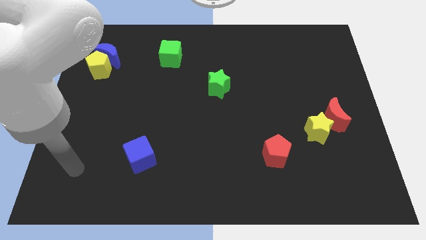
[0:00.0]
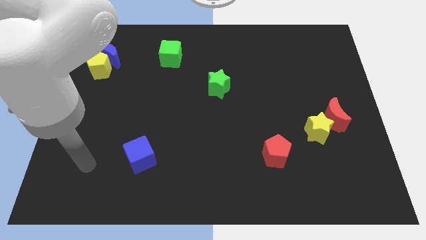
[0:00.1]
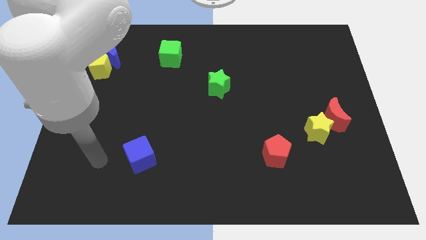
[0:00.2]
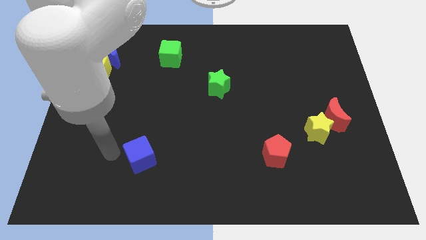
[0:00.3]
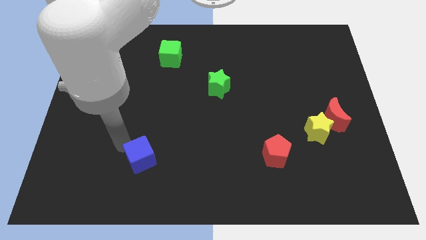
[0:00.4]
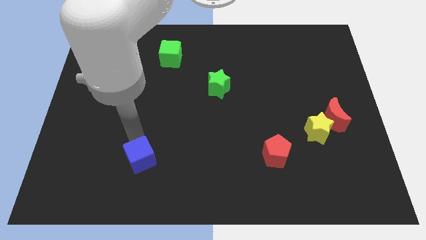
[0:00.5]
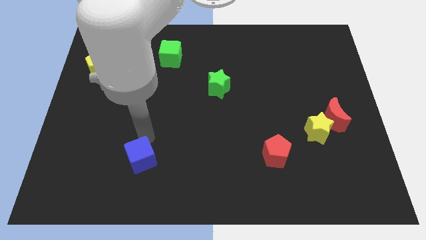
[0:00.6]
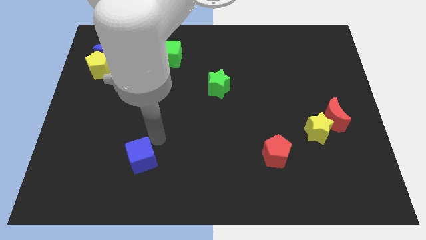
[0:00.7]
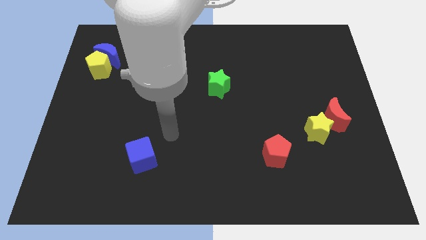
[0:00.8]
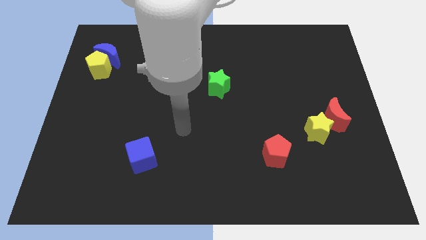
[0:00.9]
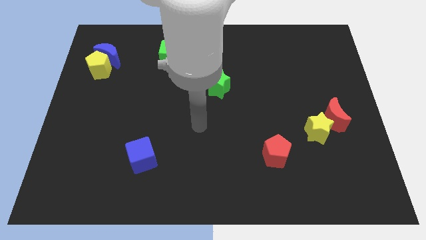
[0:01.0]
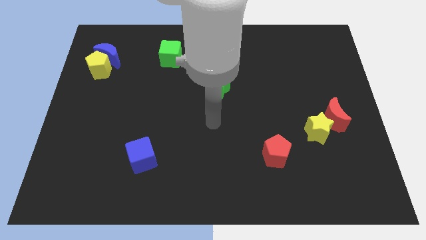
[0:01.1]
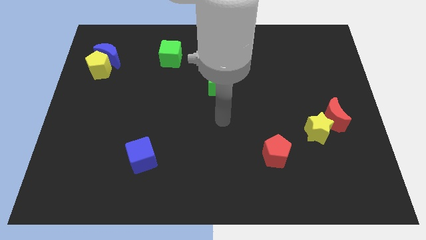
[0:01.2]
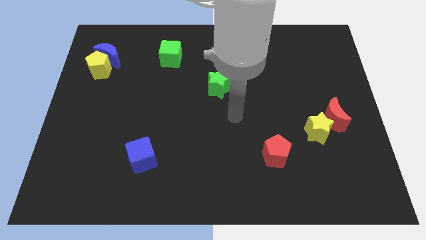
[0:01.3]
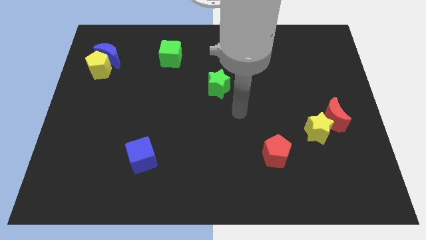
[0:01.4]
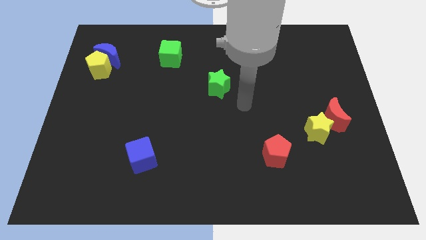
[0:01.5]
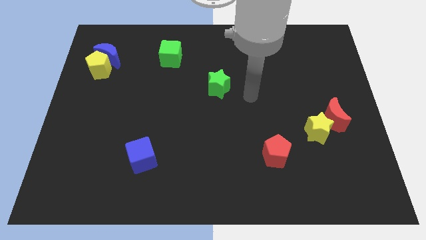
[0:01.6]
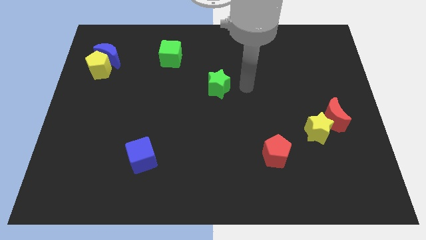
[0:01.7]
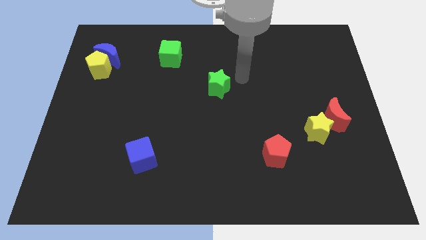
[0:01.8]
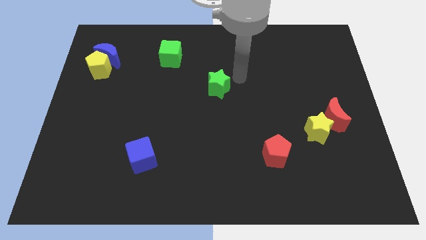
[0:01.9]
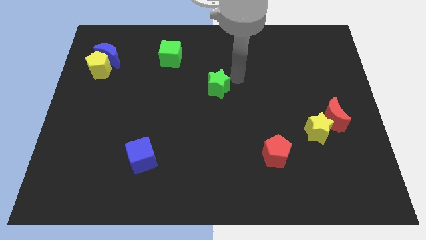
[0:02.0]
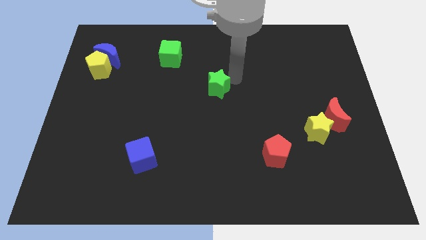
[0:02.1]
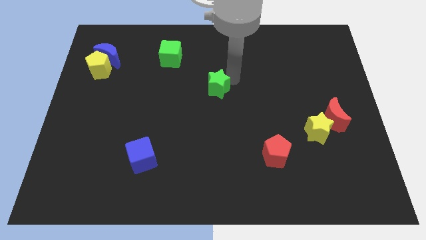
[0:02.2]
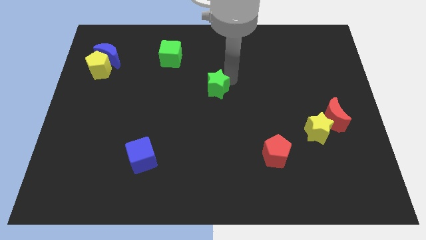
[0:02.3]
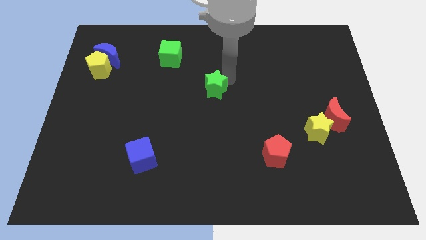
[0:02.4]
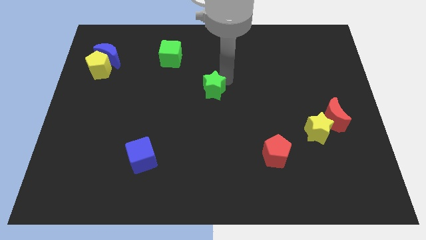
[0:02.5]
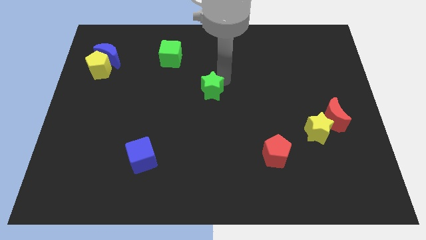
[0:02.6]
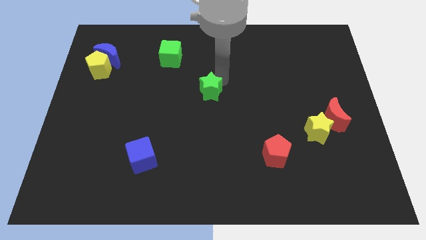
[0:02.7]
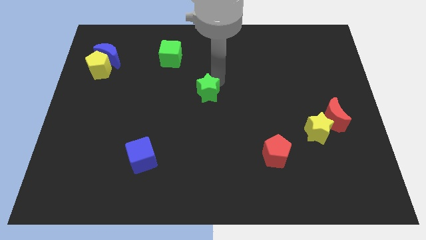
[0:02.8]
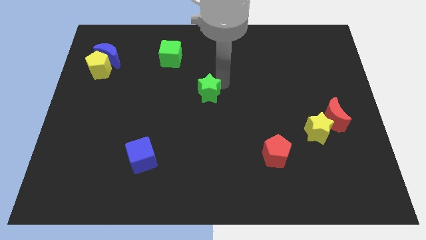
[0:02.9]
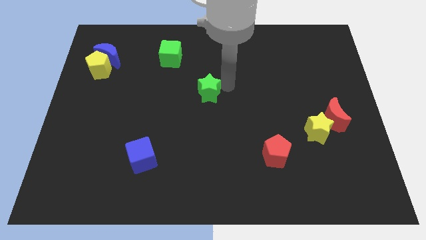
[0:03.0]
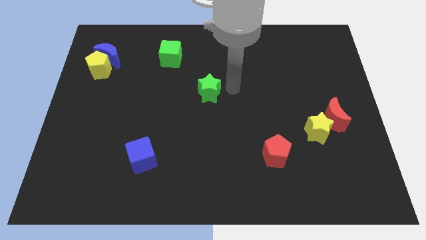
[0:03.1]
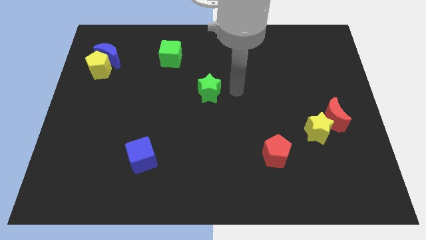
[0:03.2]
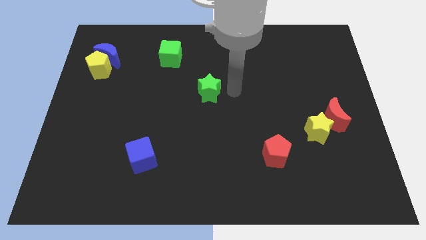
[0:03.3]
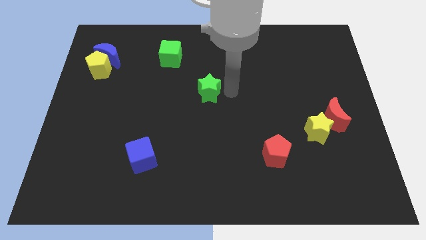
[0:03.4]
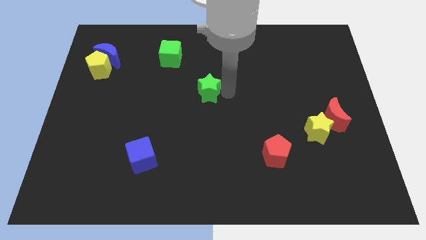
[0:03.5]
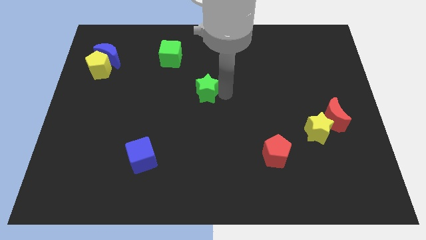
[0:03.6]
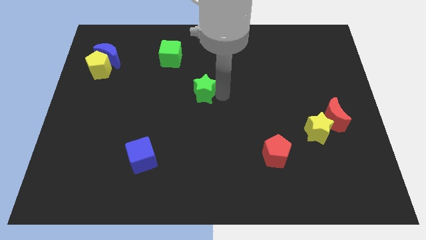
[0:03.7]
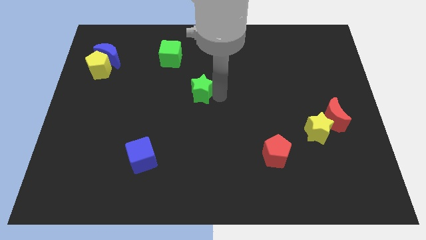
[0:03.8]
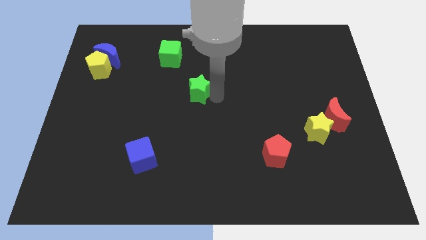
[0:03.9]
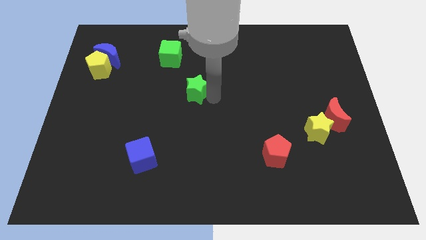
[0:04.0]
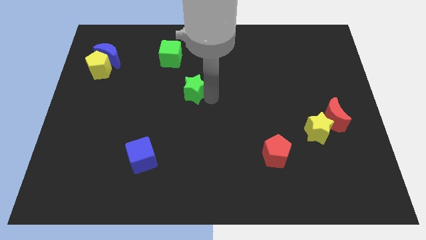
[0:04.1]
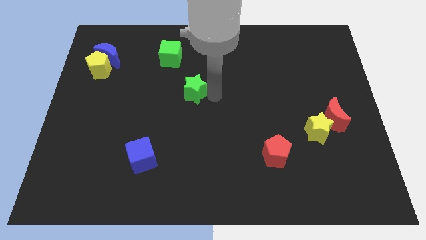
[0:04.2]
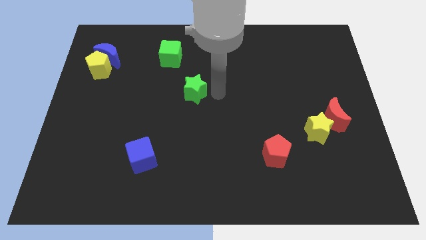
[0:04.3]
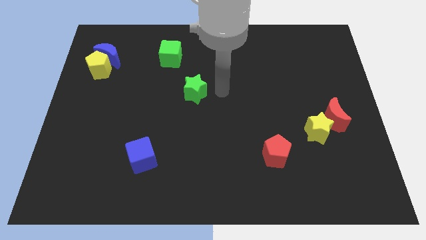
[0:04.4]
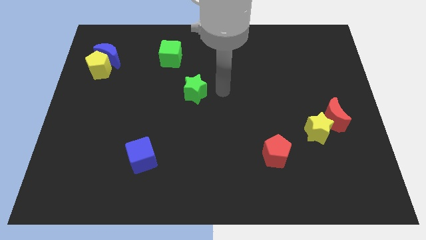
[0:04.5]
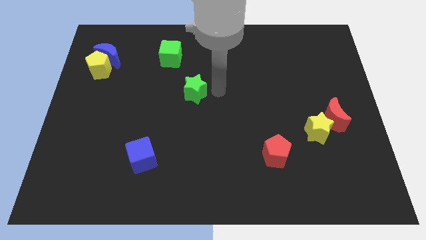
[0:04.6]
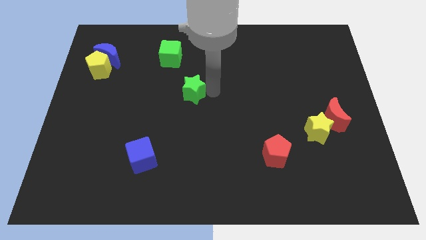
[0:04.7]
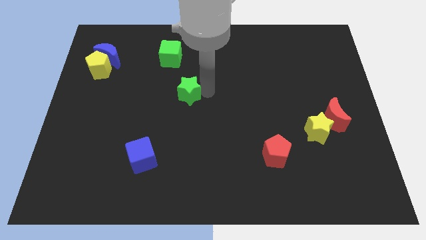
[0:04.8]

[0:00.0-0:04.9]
push the green star a bit to the left

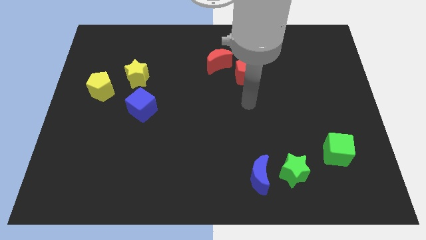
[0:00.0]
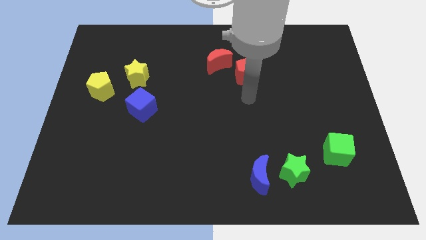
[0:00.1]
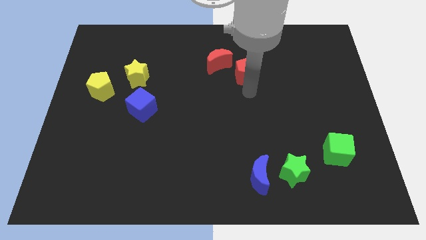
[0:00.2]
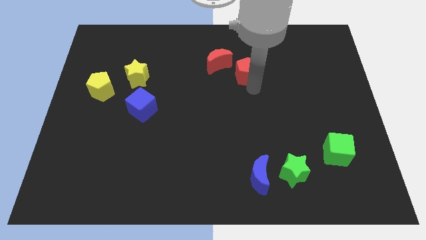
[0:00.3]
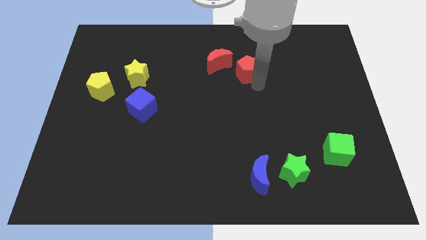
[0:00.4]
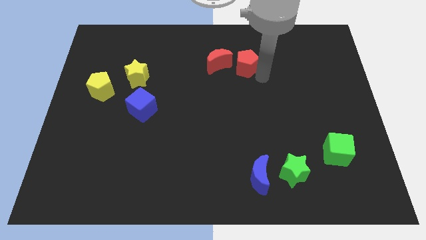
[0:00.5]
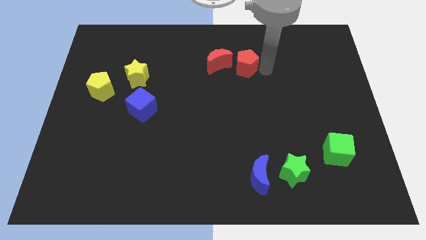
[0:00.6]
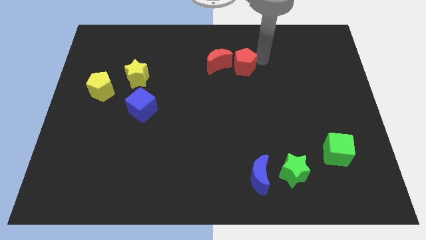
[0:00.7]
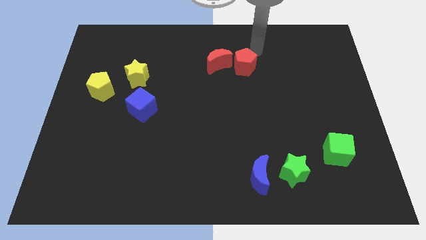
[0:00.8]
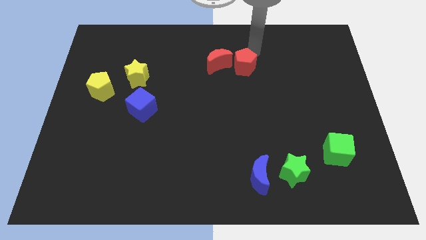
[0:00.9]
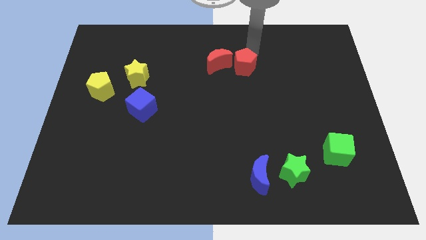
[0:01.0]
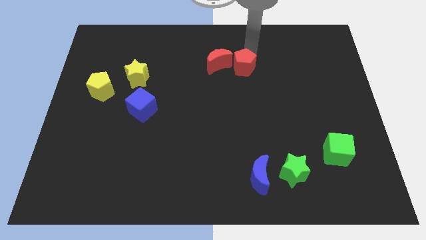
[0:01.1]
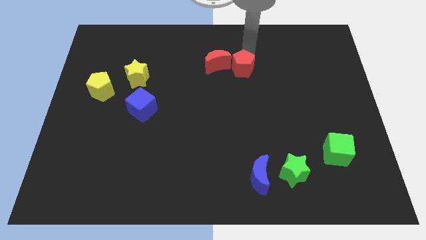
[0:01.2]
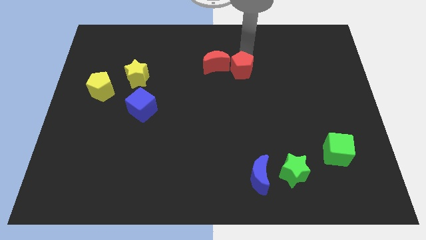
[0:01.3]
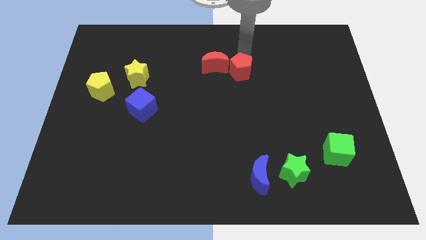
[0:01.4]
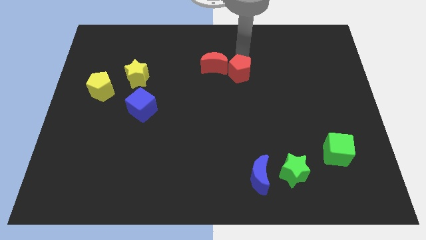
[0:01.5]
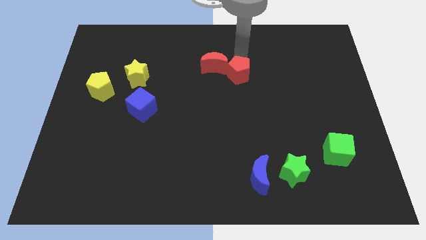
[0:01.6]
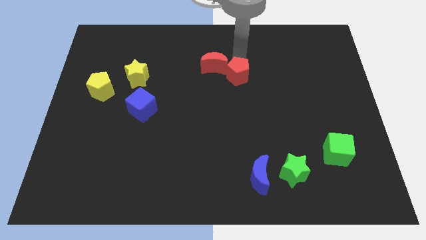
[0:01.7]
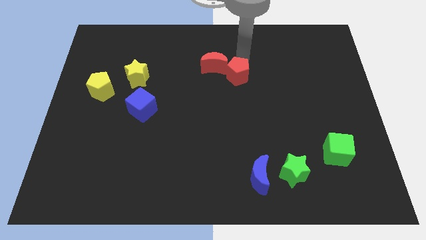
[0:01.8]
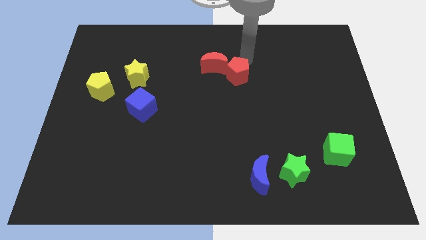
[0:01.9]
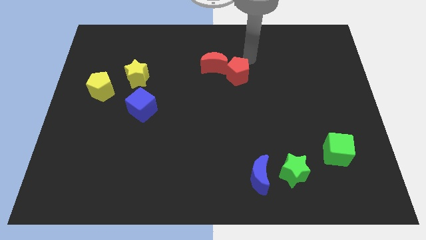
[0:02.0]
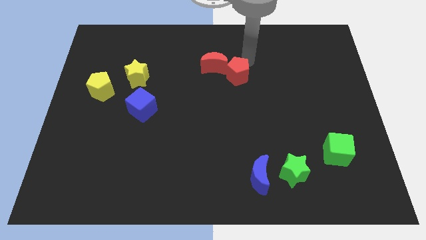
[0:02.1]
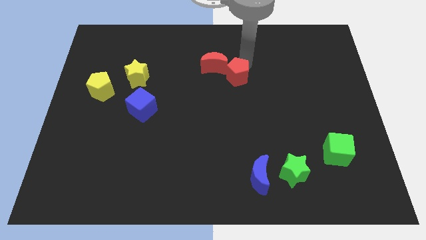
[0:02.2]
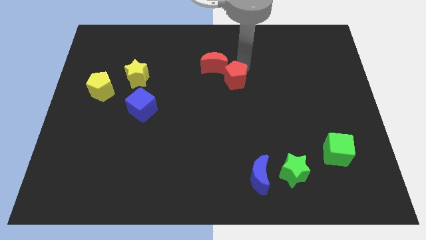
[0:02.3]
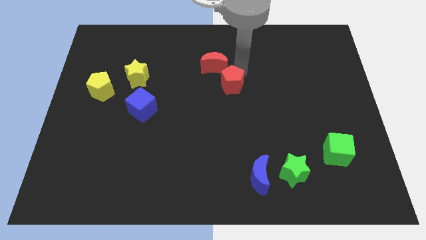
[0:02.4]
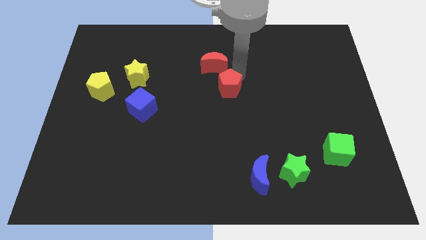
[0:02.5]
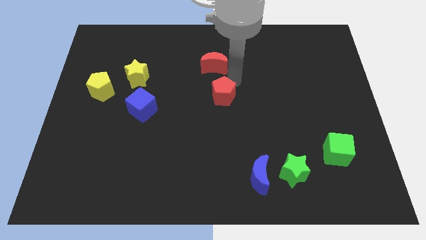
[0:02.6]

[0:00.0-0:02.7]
slightly move the red pentagon downwards and to the left
